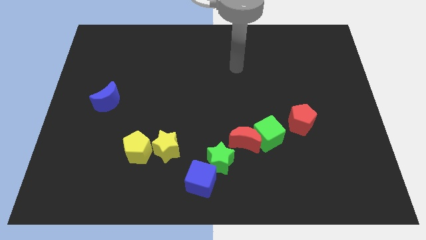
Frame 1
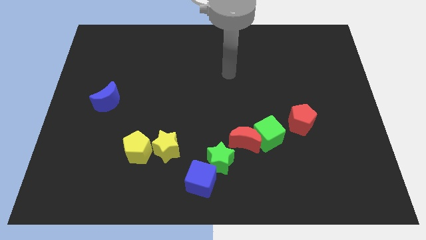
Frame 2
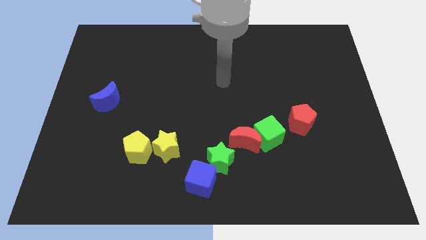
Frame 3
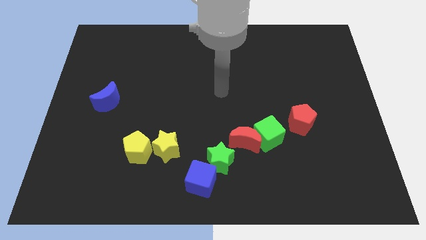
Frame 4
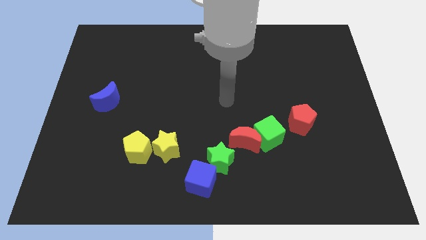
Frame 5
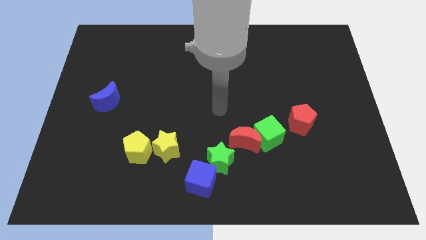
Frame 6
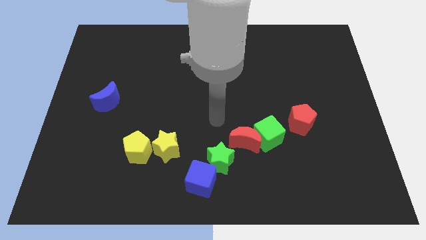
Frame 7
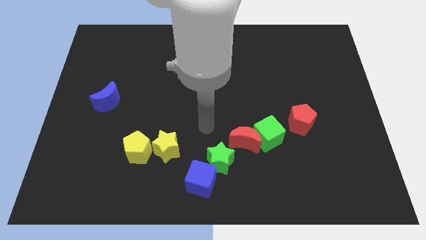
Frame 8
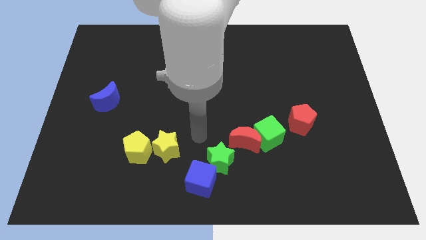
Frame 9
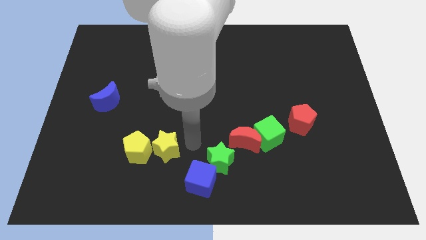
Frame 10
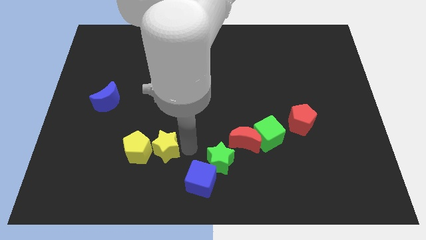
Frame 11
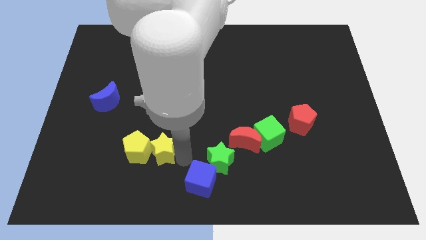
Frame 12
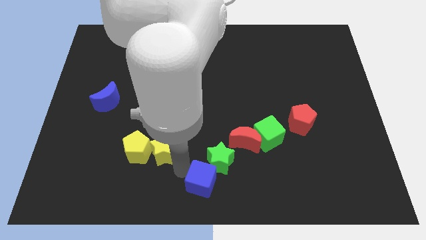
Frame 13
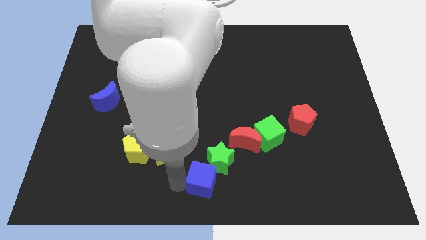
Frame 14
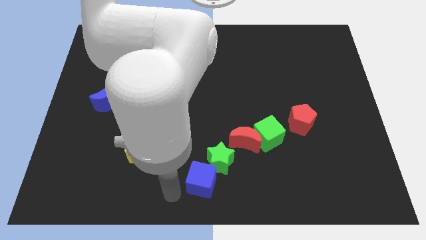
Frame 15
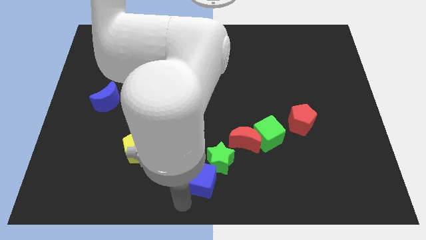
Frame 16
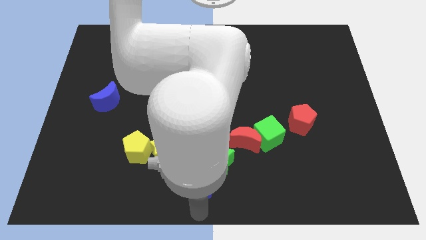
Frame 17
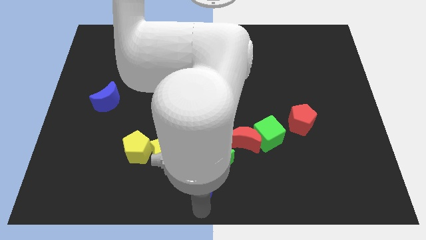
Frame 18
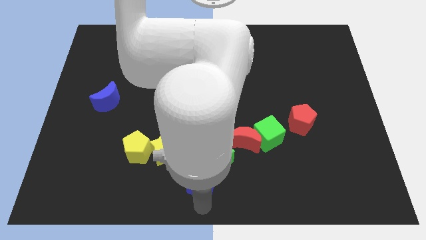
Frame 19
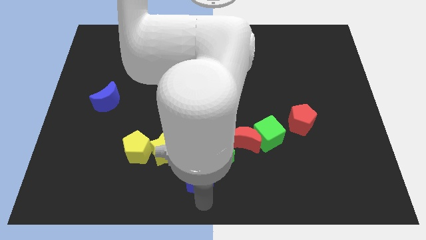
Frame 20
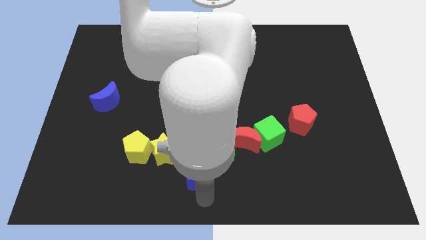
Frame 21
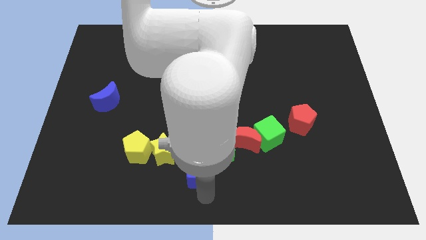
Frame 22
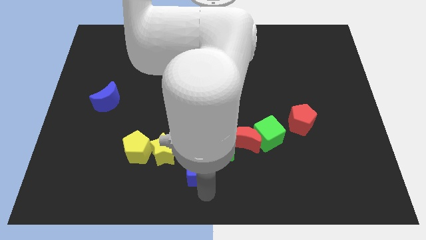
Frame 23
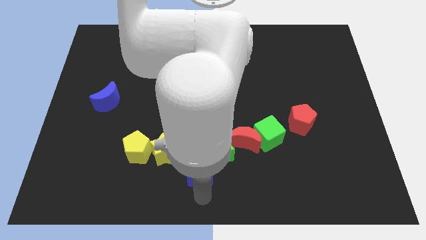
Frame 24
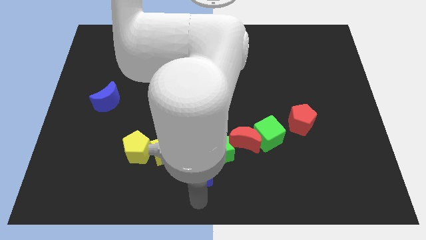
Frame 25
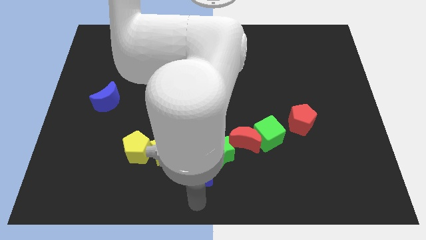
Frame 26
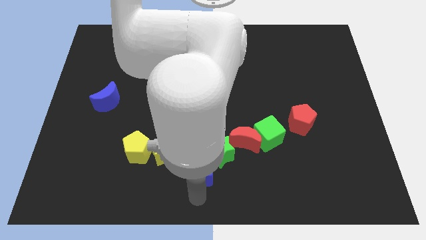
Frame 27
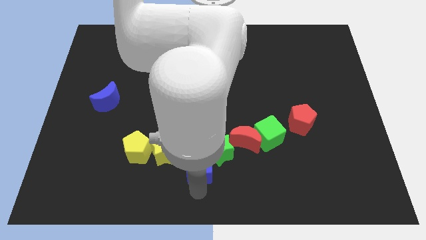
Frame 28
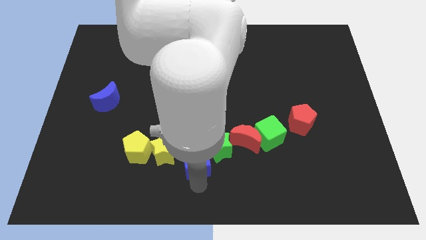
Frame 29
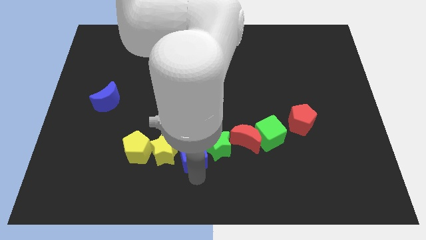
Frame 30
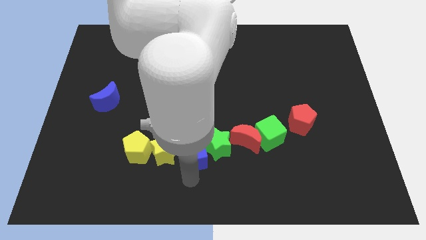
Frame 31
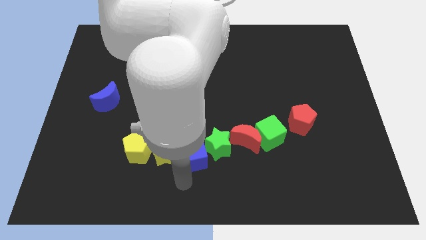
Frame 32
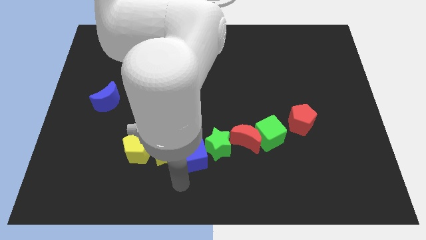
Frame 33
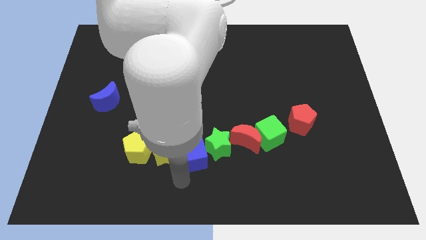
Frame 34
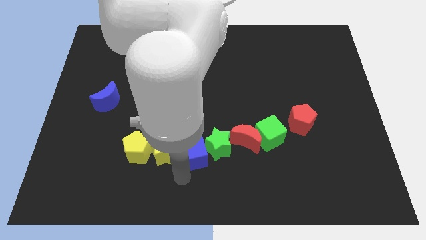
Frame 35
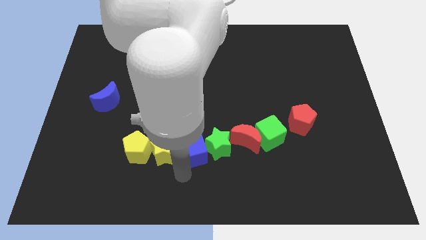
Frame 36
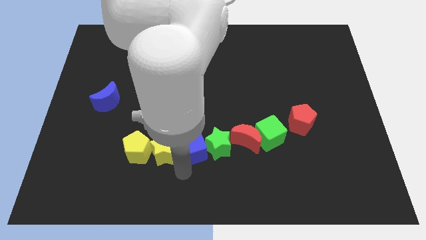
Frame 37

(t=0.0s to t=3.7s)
slide the blue cube slightly upwards

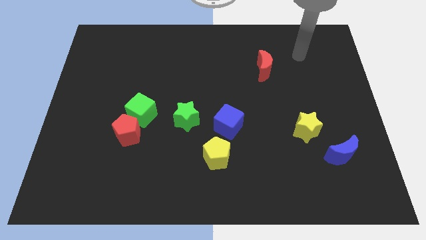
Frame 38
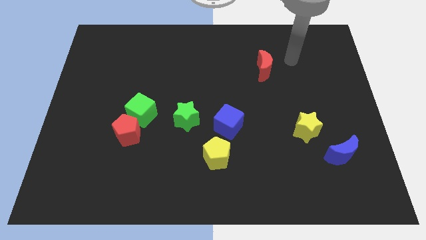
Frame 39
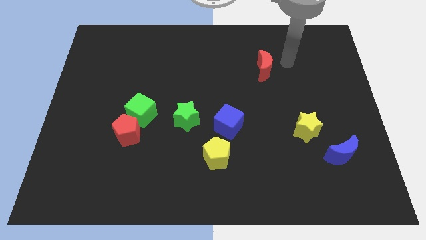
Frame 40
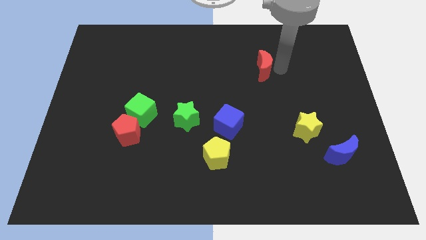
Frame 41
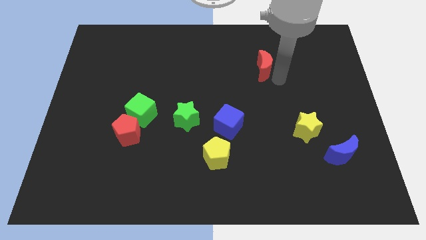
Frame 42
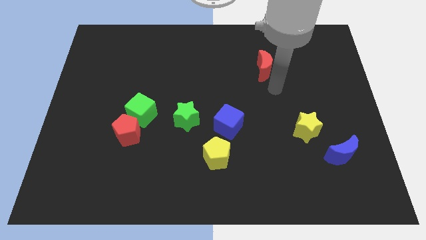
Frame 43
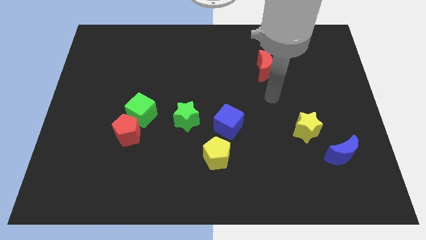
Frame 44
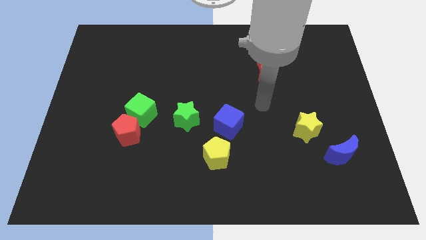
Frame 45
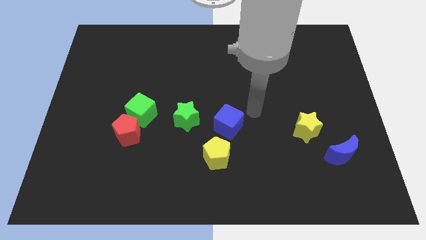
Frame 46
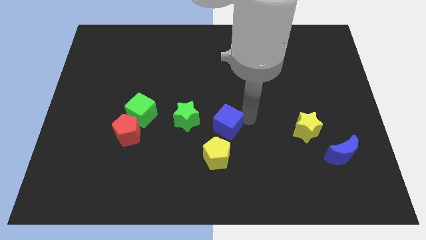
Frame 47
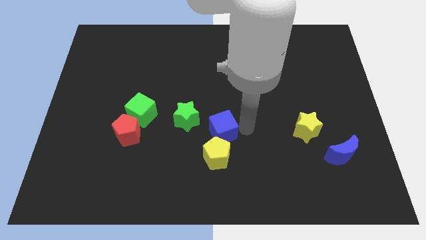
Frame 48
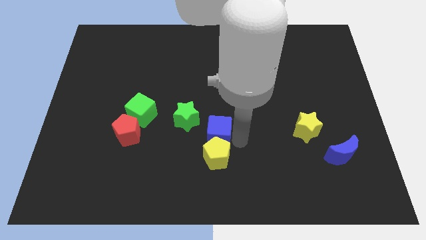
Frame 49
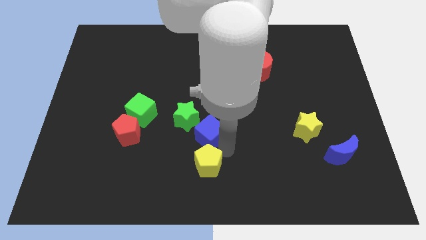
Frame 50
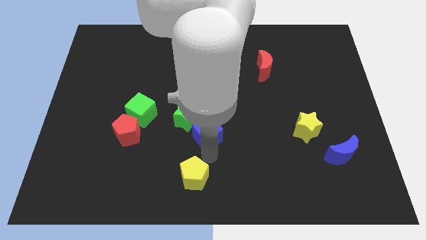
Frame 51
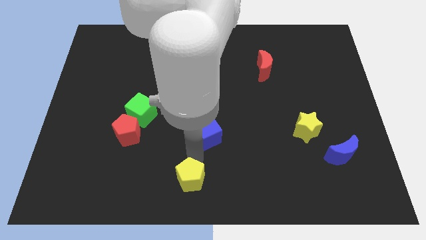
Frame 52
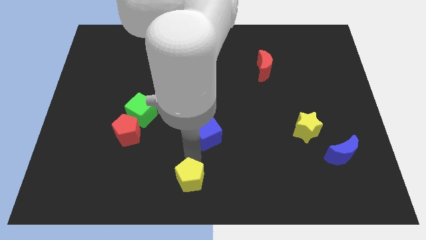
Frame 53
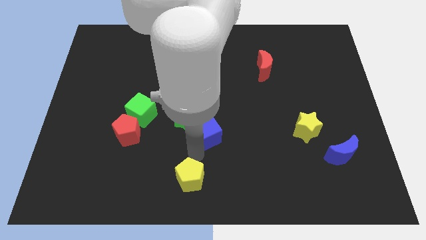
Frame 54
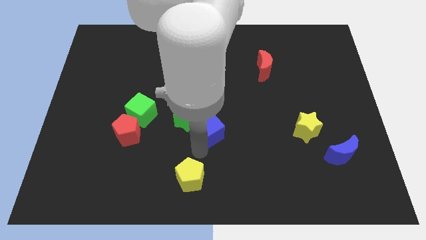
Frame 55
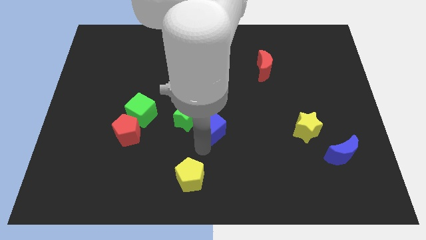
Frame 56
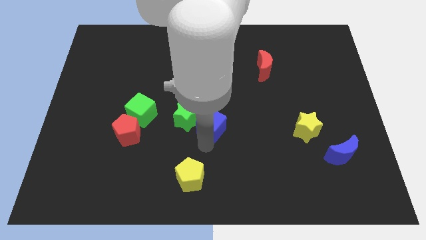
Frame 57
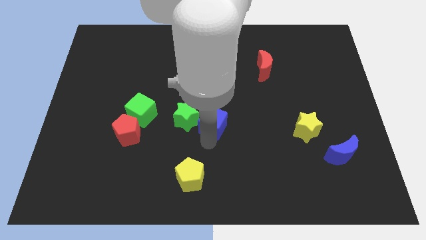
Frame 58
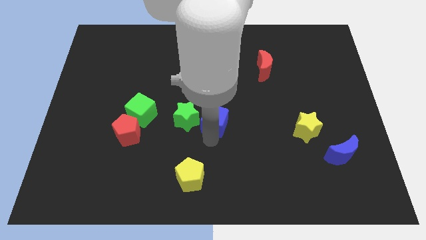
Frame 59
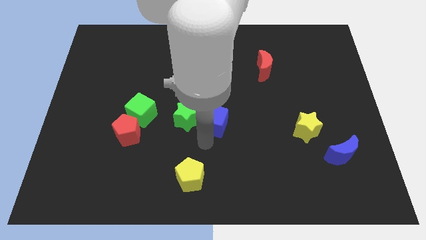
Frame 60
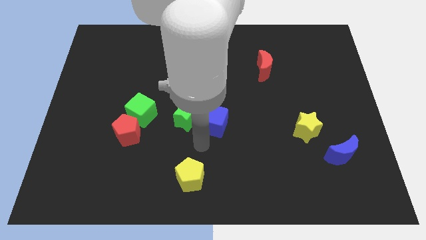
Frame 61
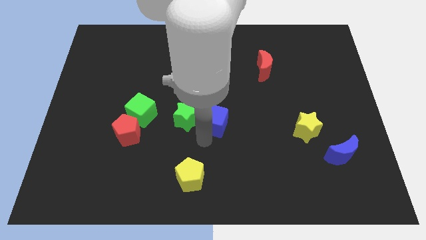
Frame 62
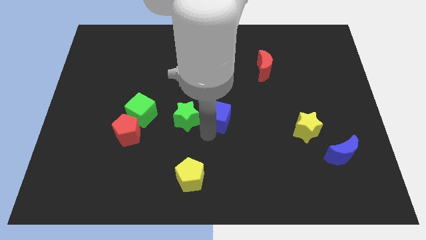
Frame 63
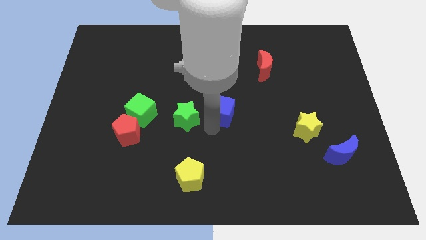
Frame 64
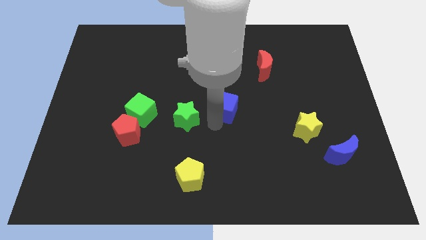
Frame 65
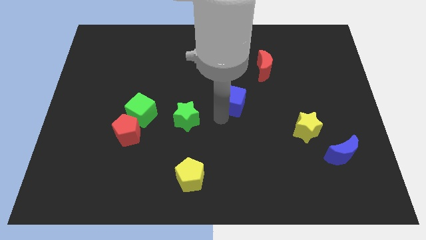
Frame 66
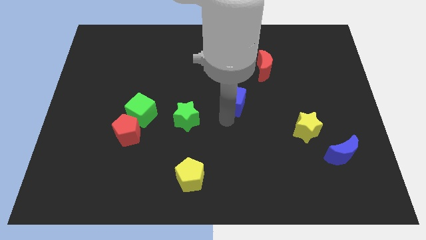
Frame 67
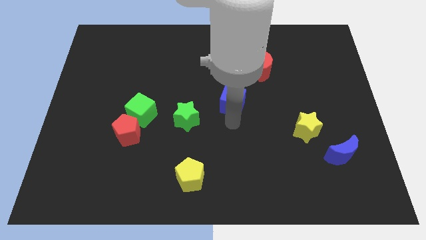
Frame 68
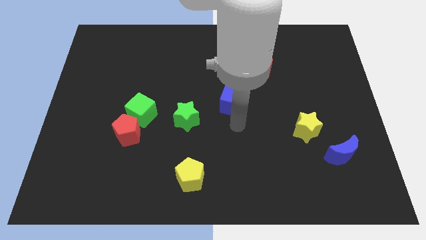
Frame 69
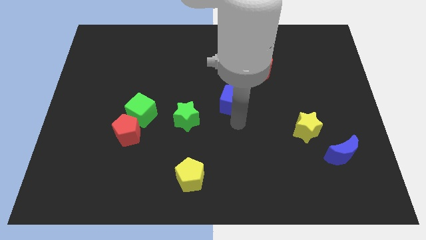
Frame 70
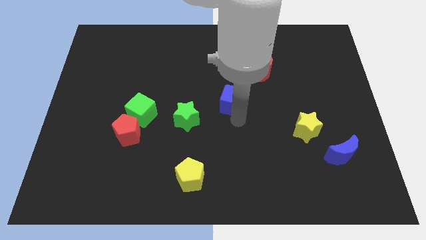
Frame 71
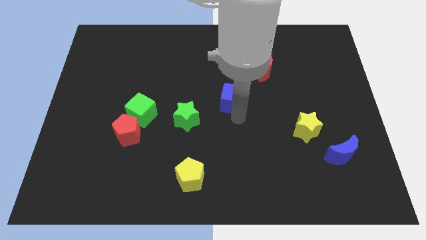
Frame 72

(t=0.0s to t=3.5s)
push the blue cube up somewhat
